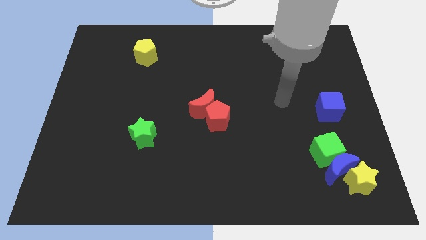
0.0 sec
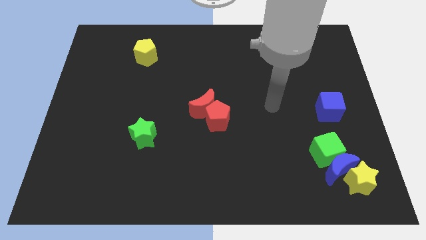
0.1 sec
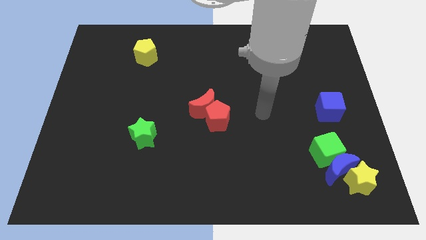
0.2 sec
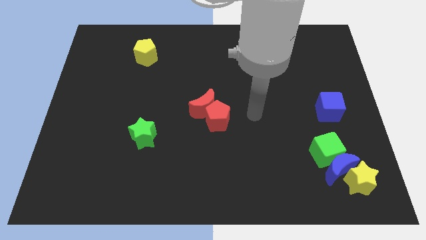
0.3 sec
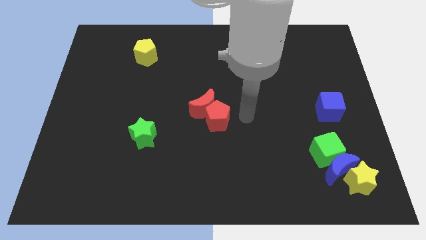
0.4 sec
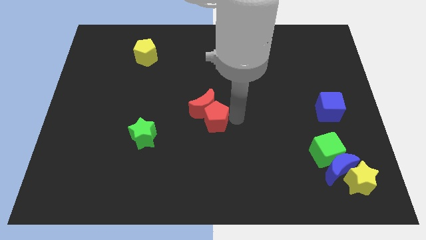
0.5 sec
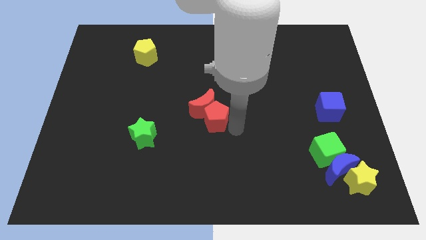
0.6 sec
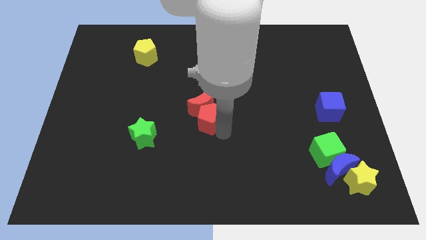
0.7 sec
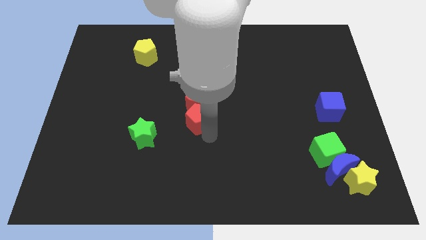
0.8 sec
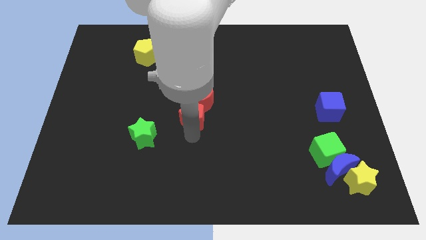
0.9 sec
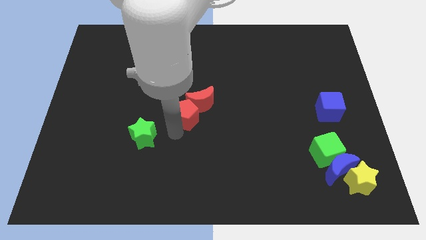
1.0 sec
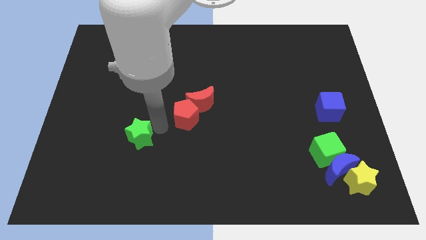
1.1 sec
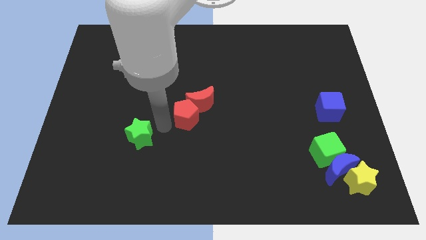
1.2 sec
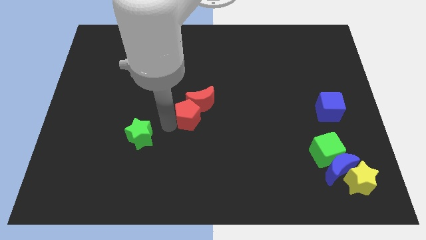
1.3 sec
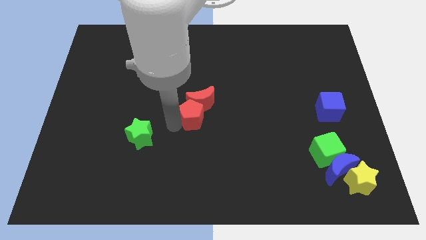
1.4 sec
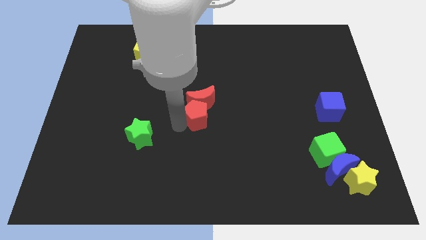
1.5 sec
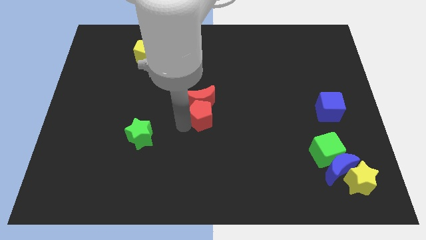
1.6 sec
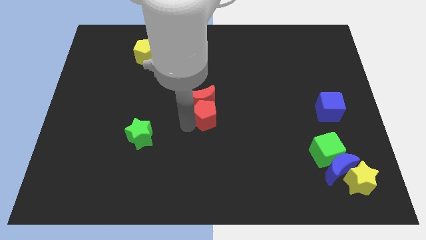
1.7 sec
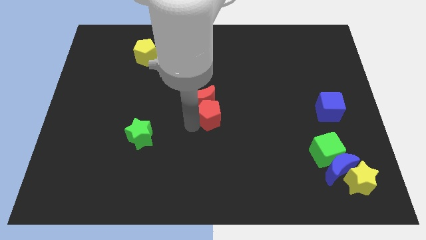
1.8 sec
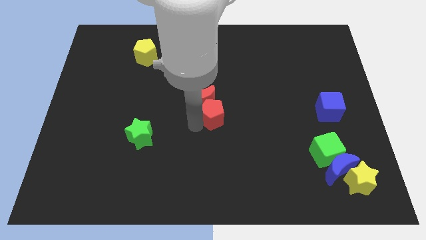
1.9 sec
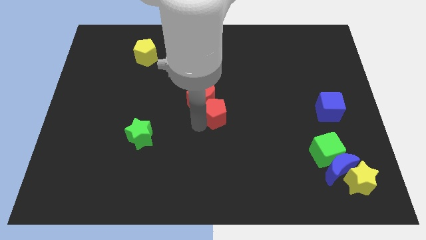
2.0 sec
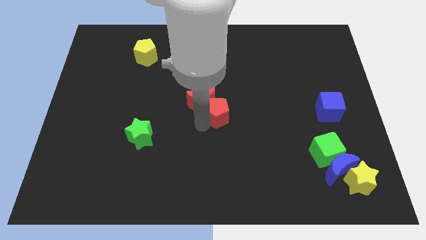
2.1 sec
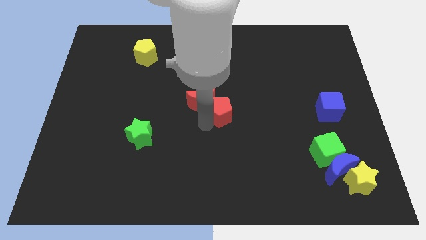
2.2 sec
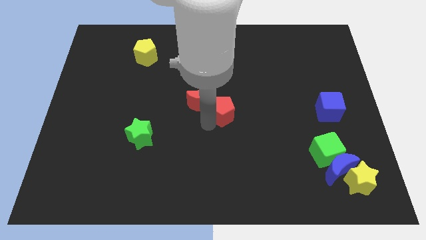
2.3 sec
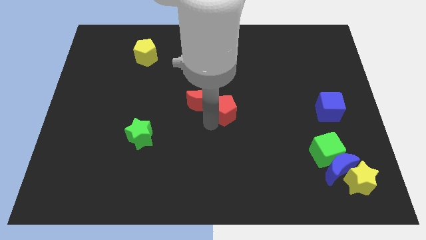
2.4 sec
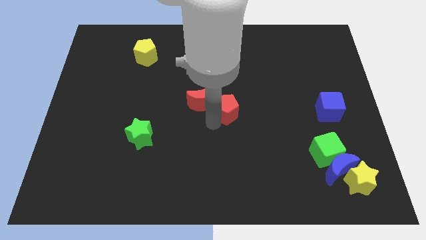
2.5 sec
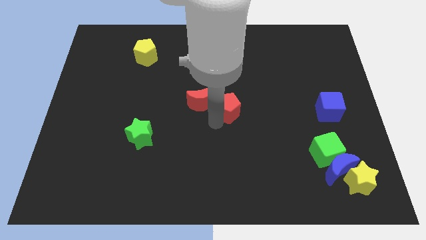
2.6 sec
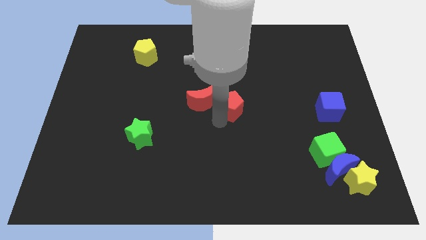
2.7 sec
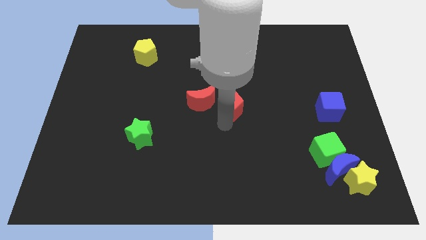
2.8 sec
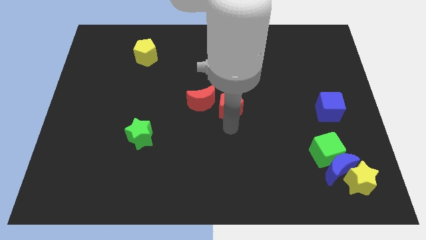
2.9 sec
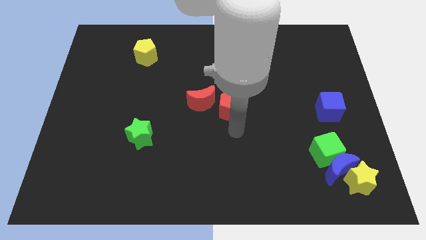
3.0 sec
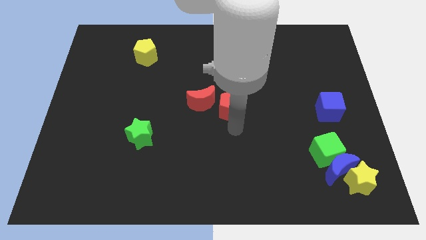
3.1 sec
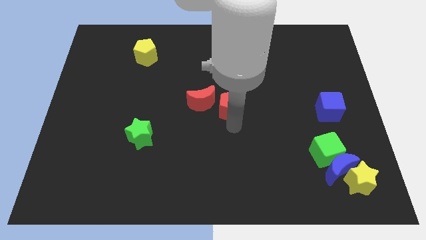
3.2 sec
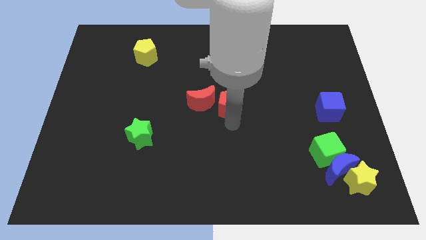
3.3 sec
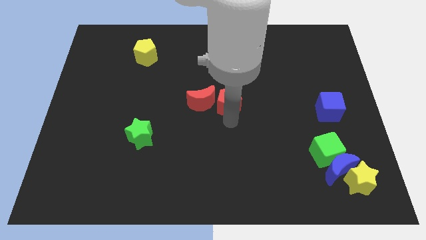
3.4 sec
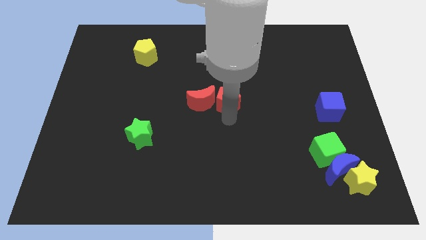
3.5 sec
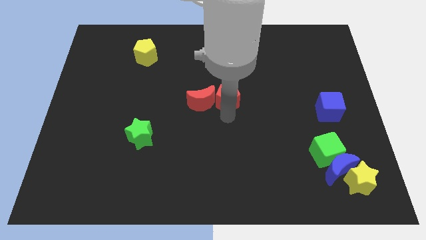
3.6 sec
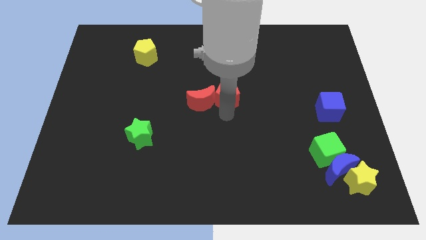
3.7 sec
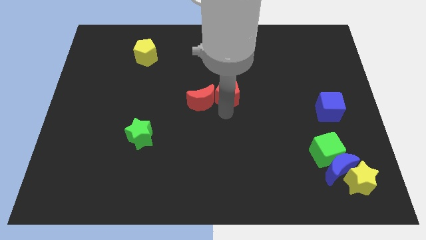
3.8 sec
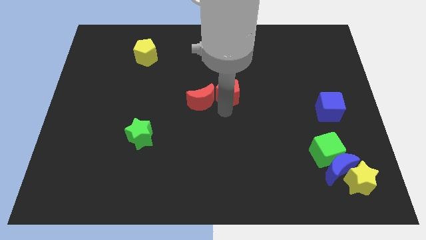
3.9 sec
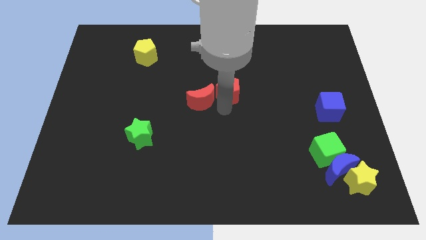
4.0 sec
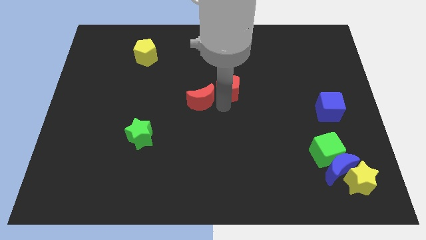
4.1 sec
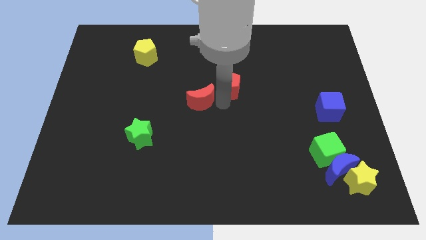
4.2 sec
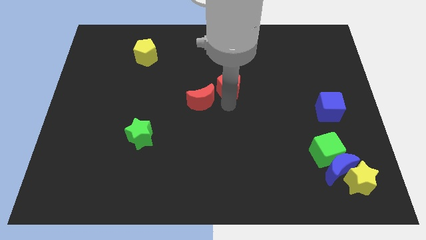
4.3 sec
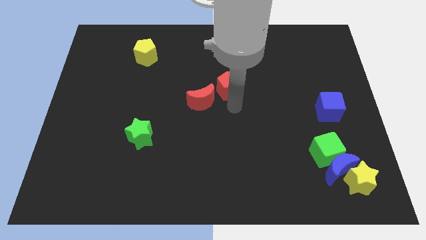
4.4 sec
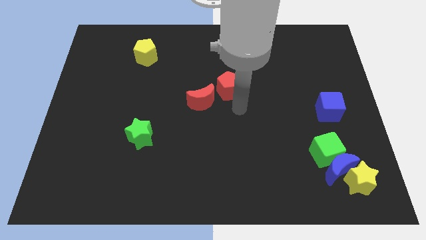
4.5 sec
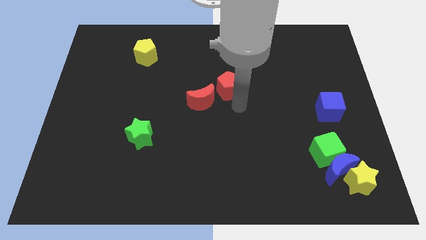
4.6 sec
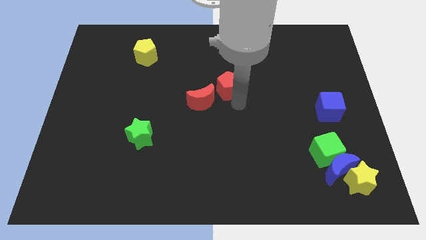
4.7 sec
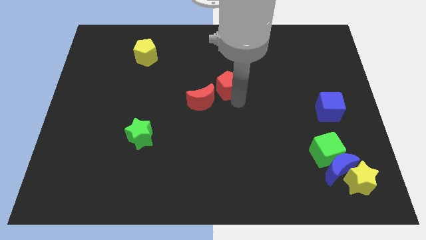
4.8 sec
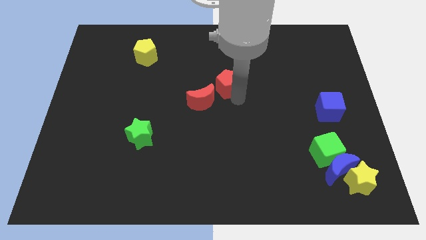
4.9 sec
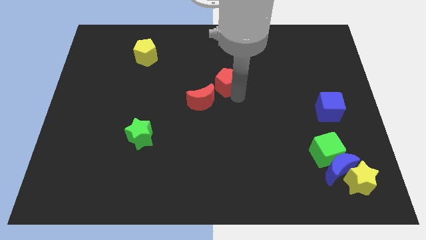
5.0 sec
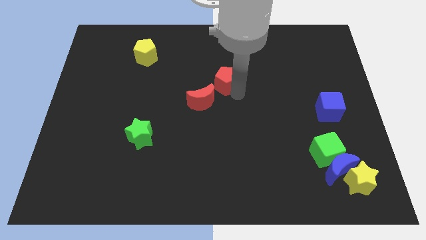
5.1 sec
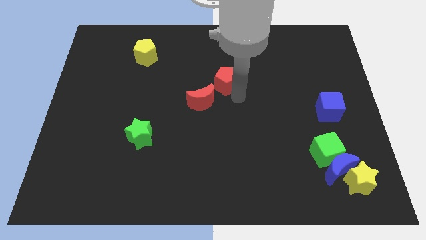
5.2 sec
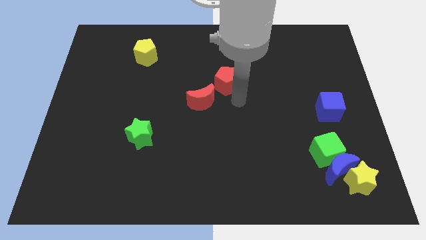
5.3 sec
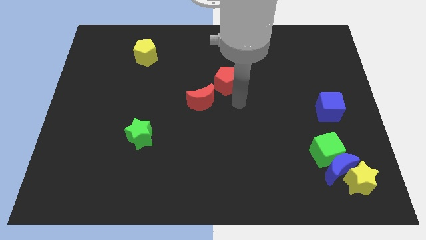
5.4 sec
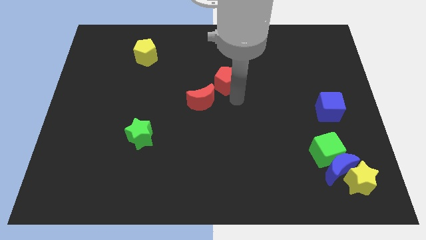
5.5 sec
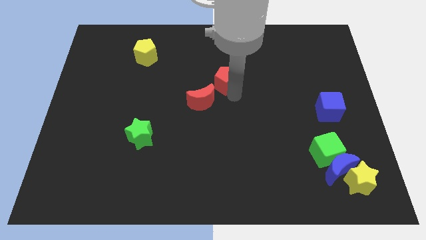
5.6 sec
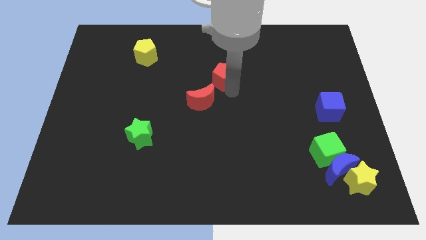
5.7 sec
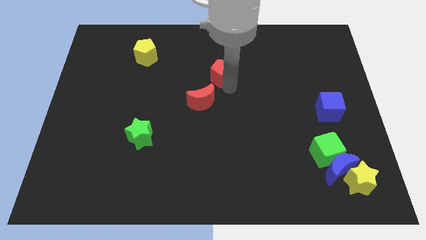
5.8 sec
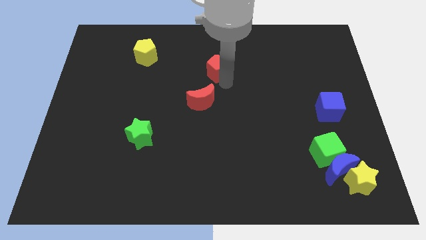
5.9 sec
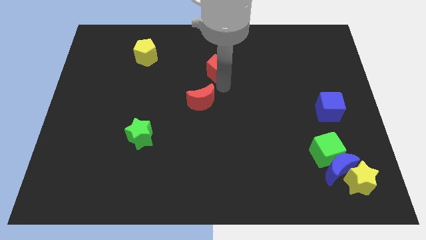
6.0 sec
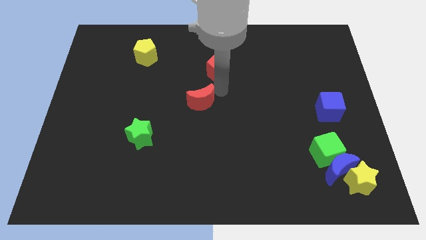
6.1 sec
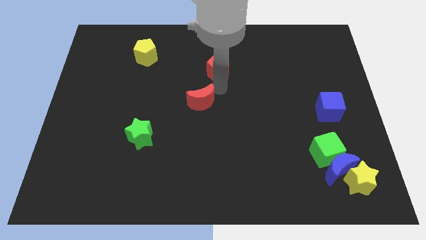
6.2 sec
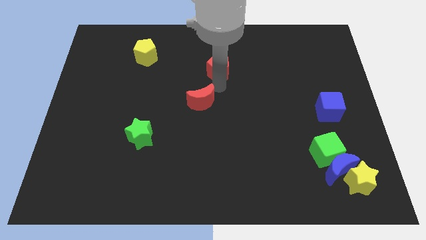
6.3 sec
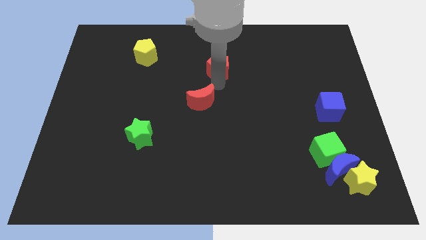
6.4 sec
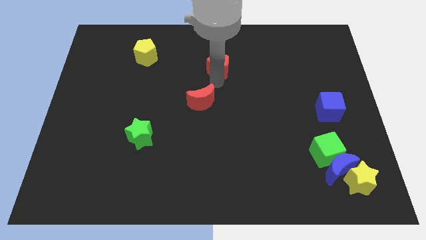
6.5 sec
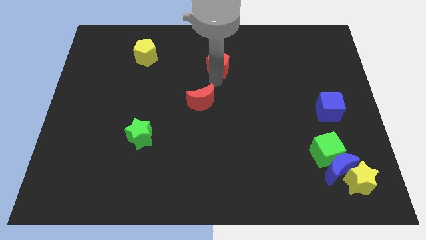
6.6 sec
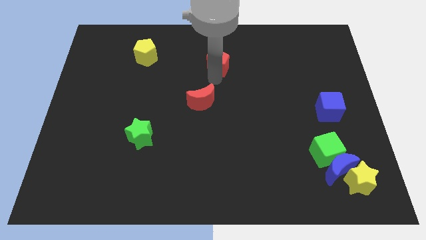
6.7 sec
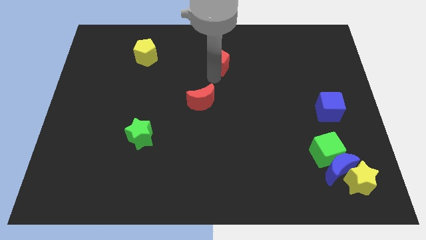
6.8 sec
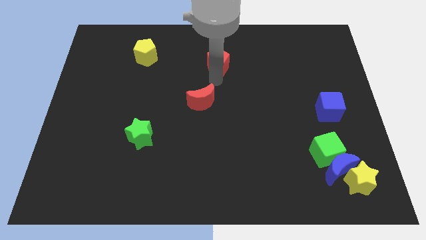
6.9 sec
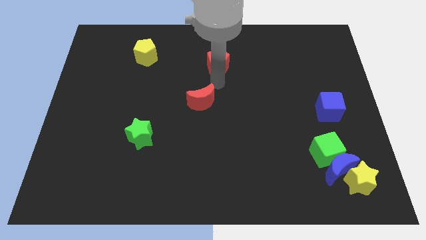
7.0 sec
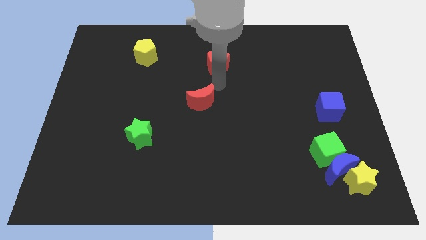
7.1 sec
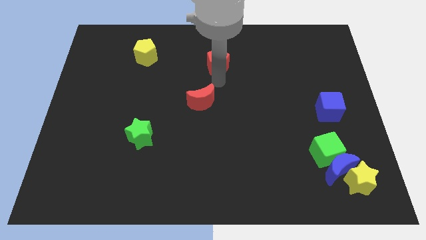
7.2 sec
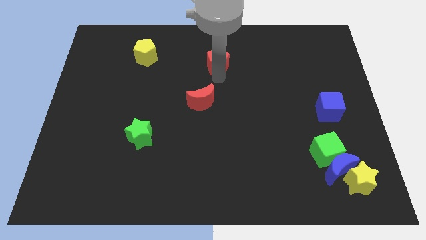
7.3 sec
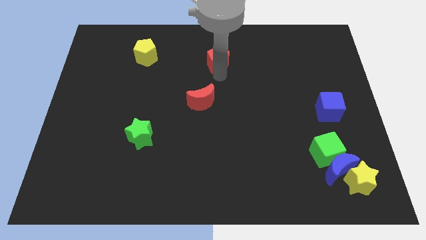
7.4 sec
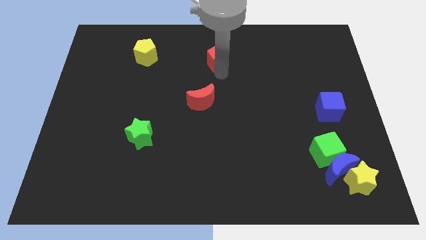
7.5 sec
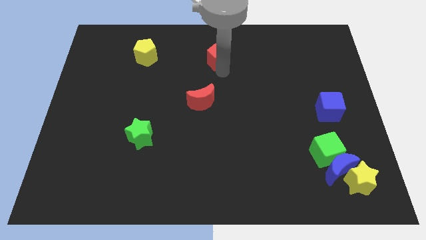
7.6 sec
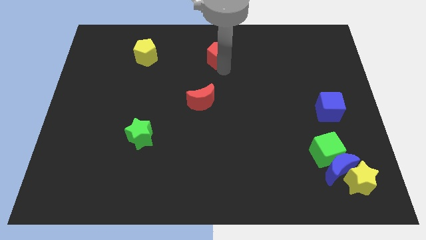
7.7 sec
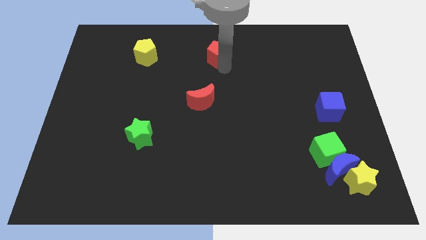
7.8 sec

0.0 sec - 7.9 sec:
put the red pentagon to the top
